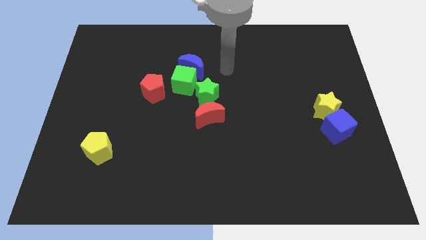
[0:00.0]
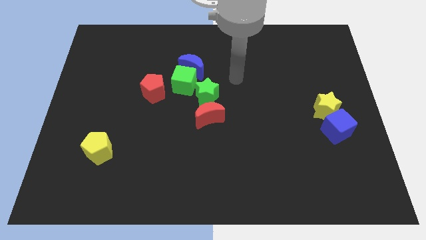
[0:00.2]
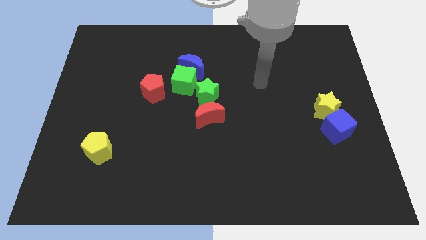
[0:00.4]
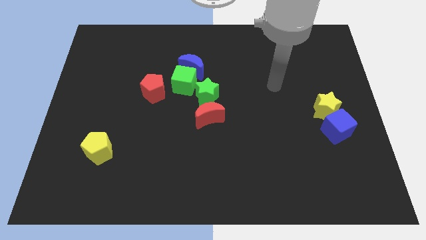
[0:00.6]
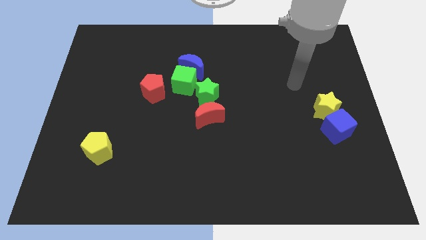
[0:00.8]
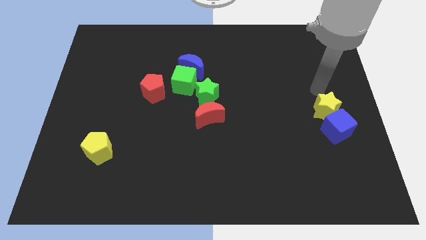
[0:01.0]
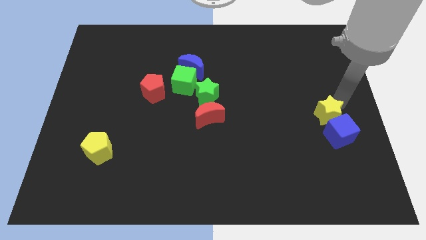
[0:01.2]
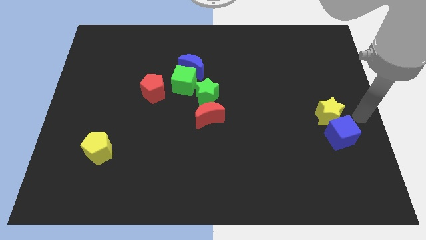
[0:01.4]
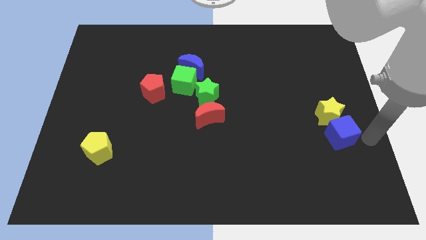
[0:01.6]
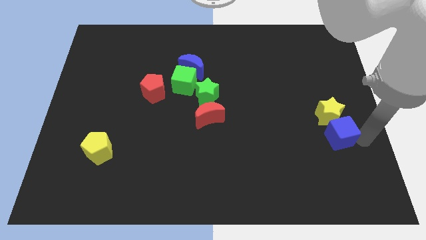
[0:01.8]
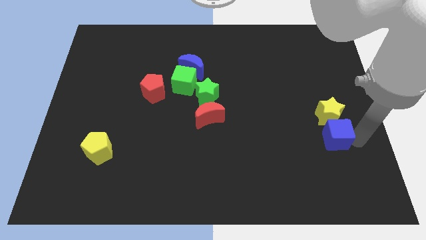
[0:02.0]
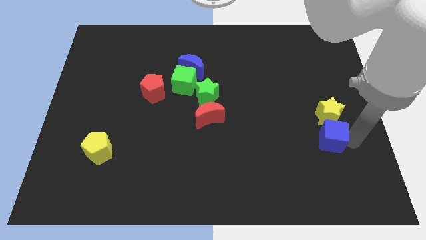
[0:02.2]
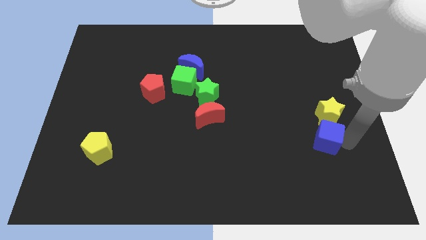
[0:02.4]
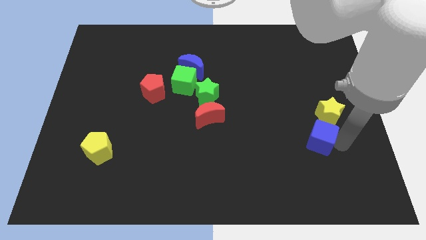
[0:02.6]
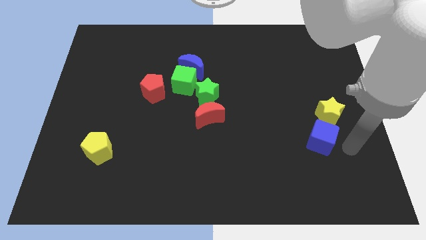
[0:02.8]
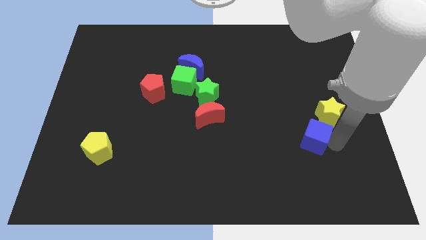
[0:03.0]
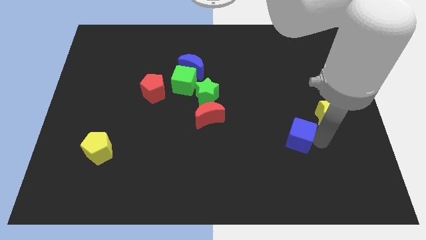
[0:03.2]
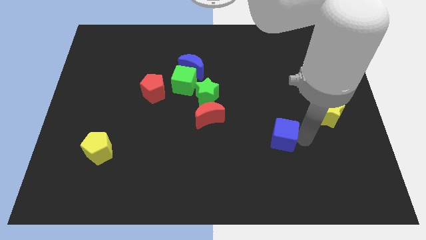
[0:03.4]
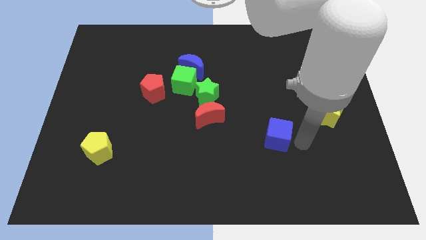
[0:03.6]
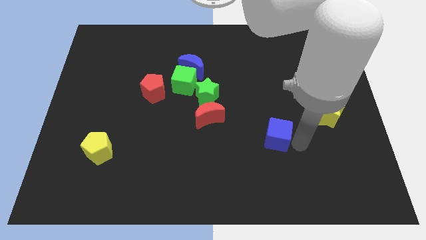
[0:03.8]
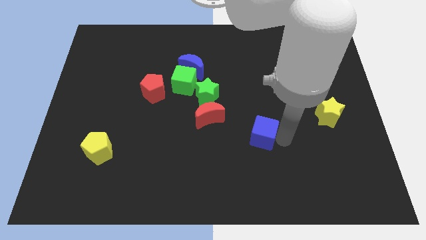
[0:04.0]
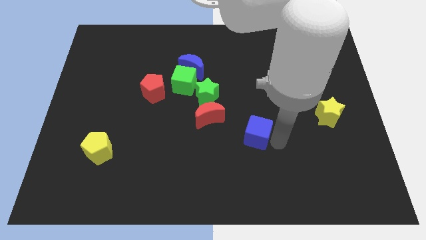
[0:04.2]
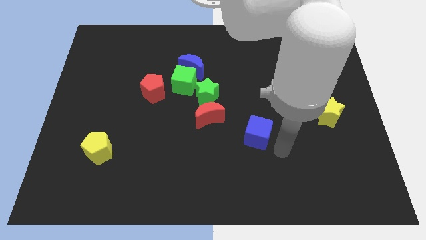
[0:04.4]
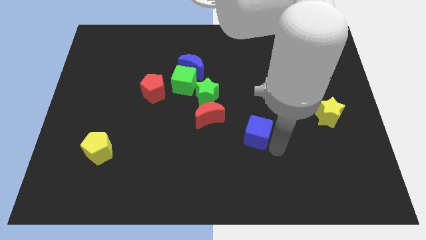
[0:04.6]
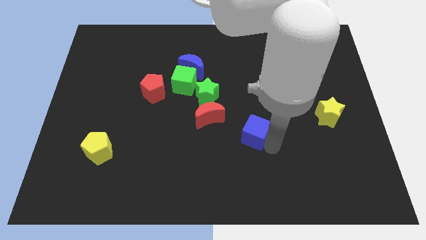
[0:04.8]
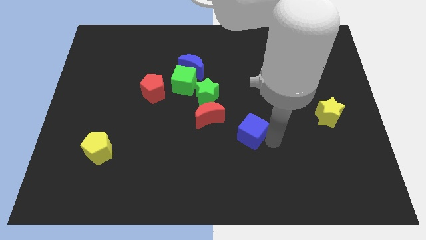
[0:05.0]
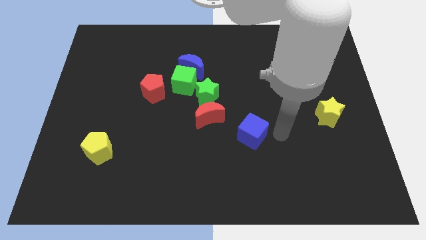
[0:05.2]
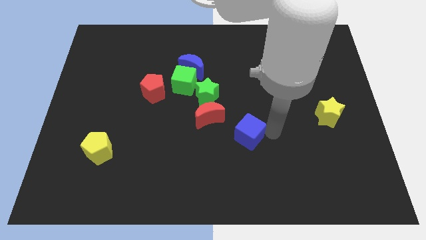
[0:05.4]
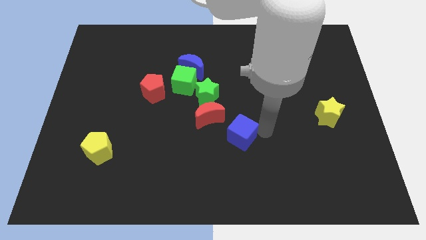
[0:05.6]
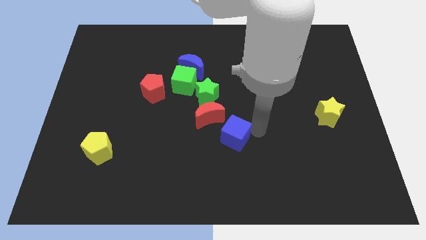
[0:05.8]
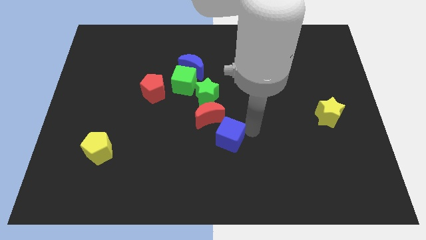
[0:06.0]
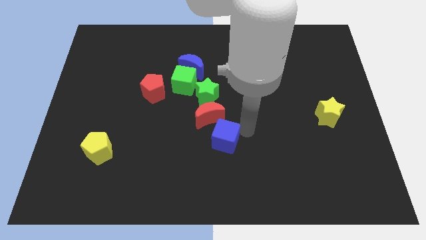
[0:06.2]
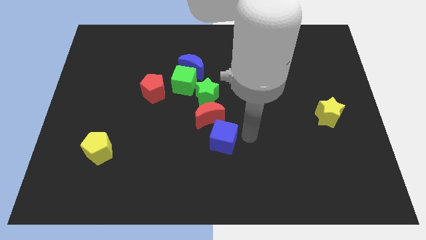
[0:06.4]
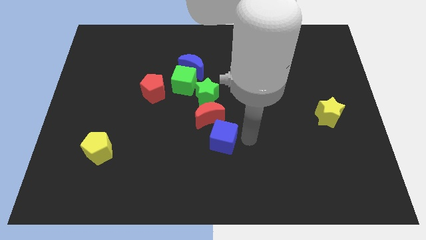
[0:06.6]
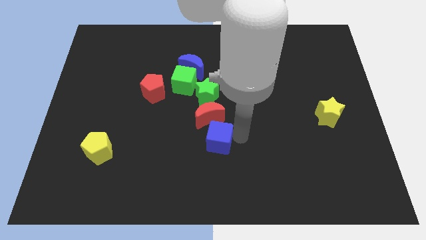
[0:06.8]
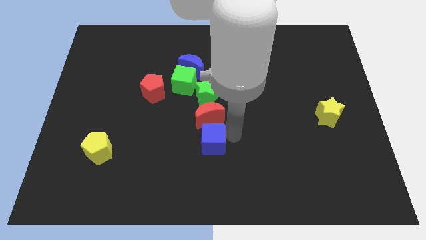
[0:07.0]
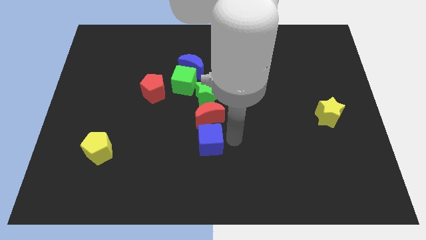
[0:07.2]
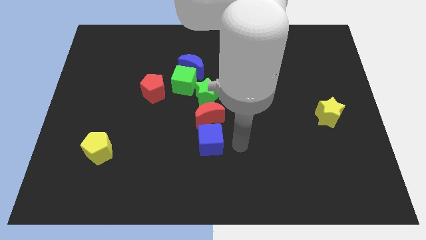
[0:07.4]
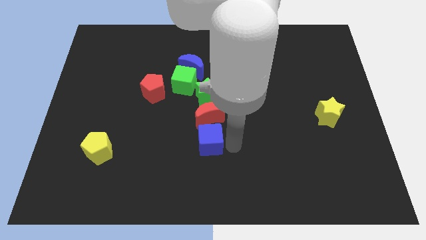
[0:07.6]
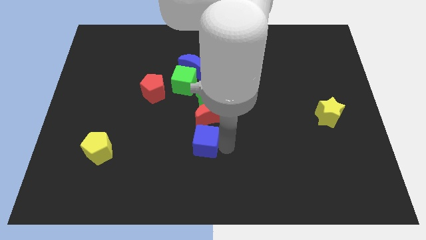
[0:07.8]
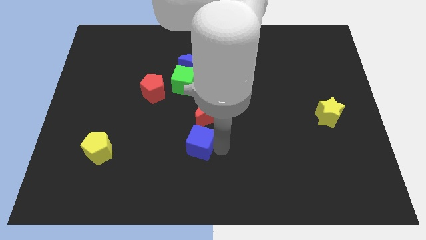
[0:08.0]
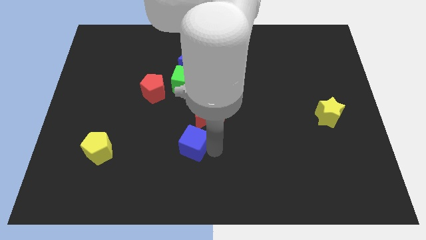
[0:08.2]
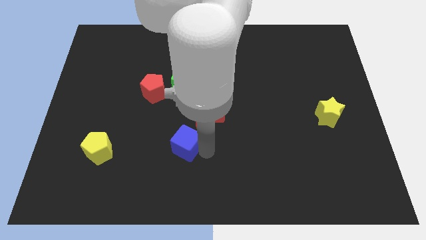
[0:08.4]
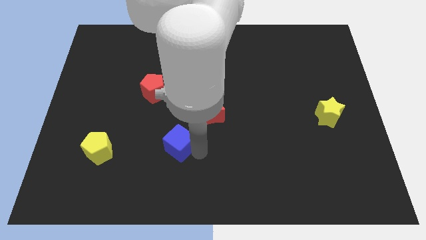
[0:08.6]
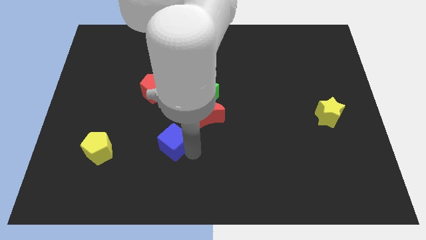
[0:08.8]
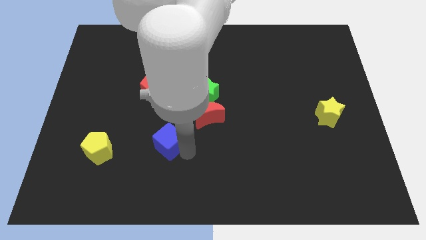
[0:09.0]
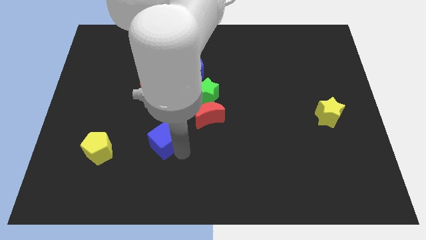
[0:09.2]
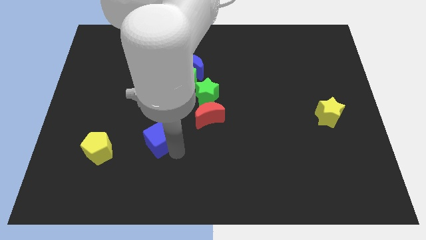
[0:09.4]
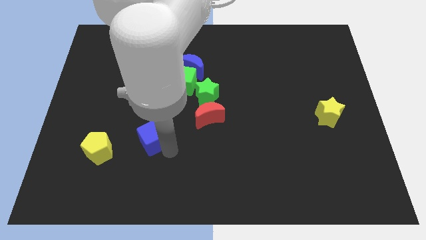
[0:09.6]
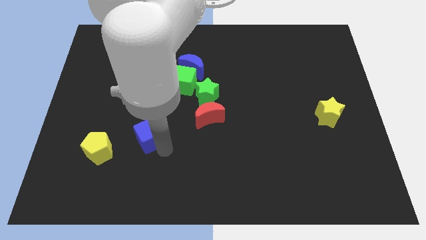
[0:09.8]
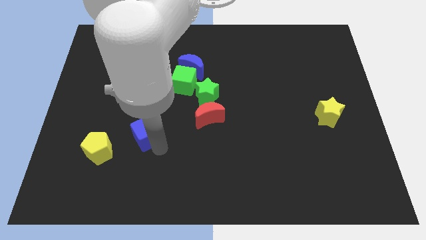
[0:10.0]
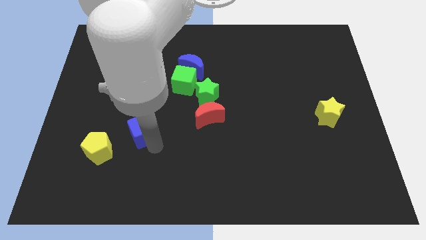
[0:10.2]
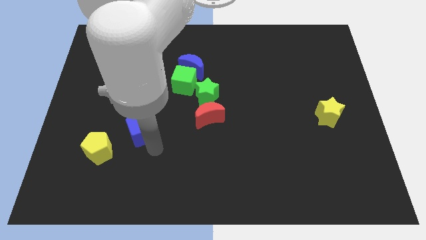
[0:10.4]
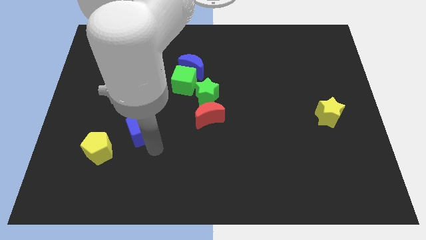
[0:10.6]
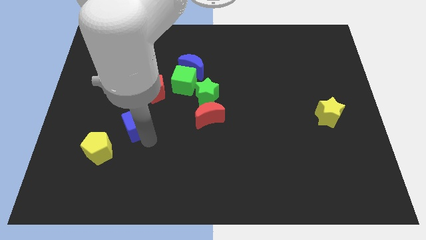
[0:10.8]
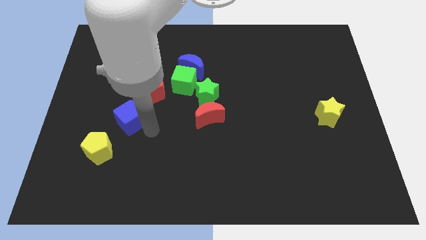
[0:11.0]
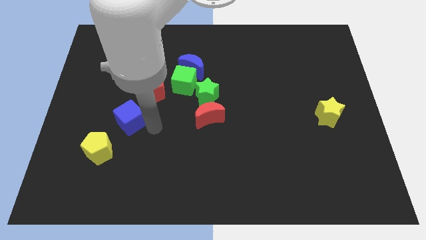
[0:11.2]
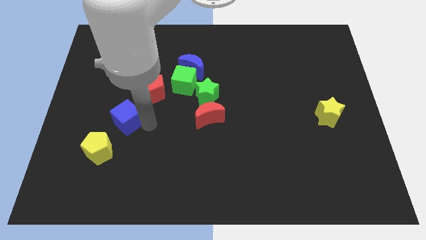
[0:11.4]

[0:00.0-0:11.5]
push the blue cube above the yellow pentagon

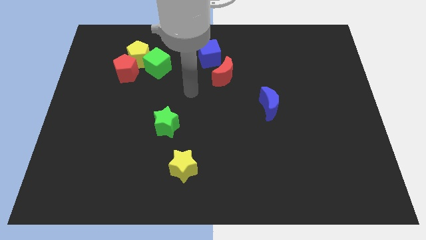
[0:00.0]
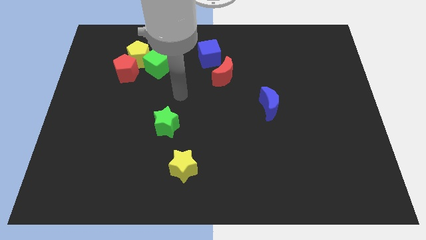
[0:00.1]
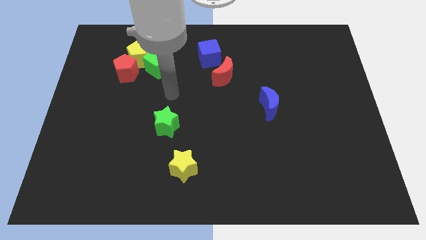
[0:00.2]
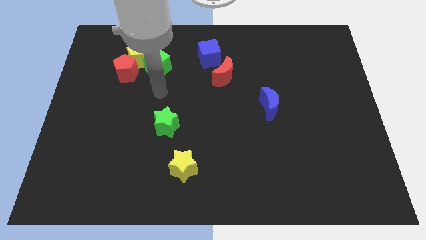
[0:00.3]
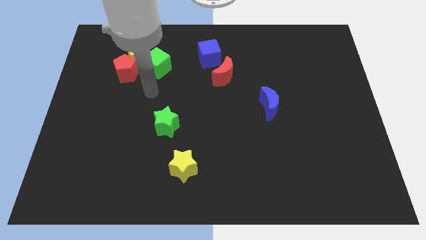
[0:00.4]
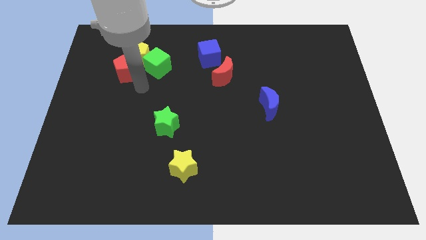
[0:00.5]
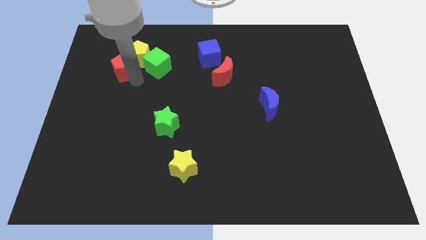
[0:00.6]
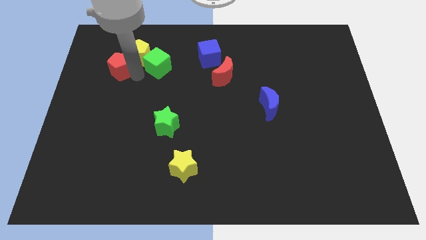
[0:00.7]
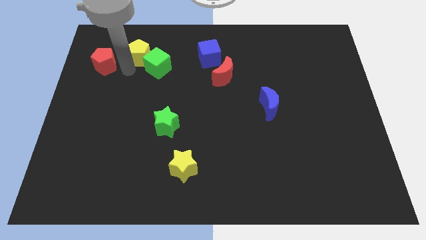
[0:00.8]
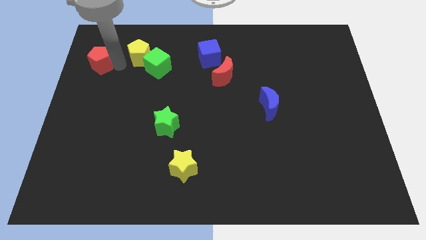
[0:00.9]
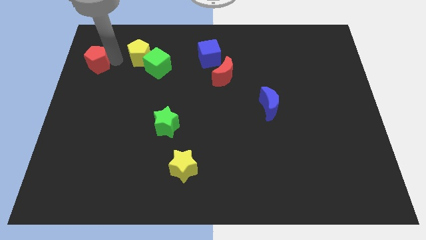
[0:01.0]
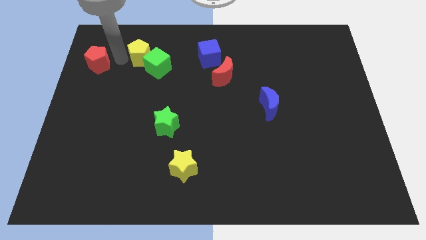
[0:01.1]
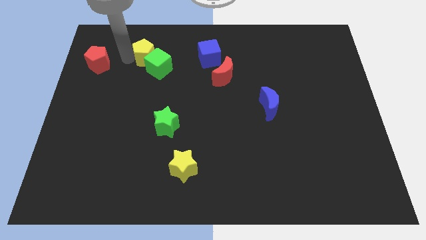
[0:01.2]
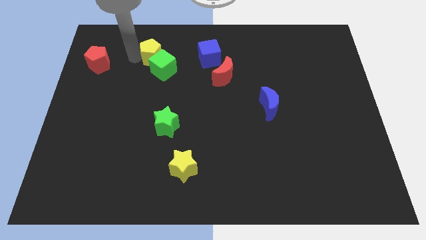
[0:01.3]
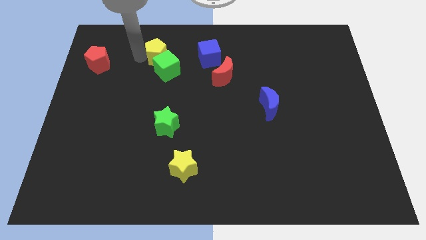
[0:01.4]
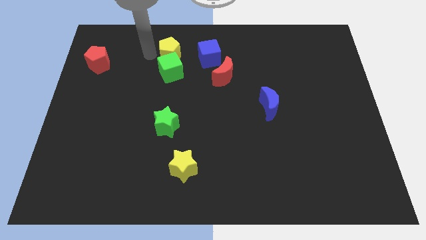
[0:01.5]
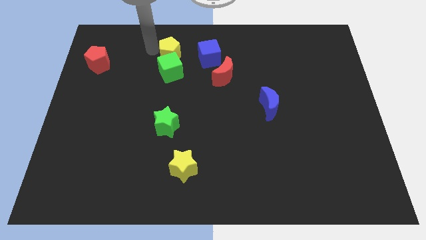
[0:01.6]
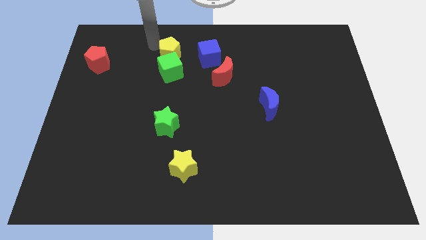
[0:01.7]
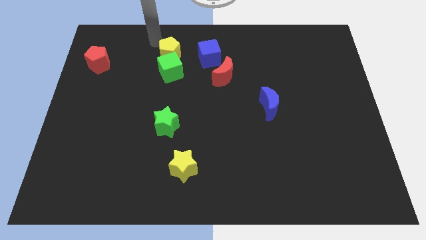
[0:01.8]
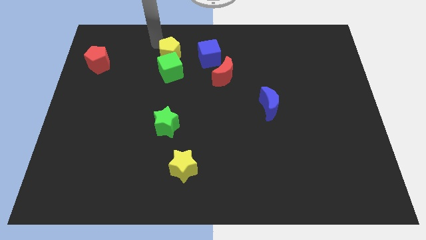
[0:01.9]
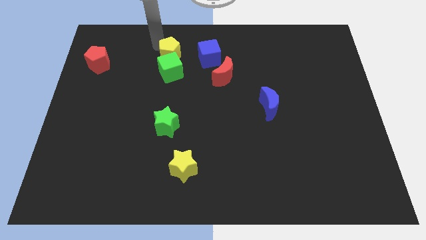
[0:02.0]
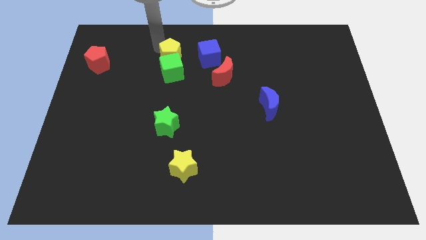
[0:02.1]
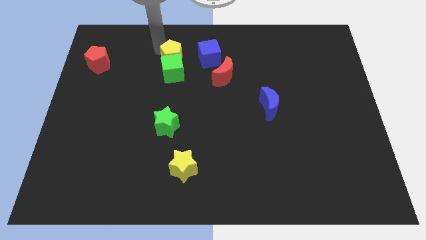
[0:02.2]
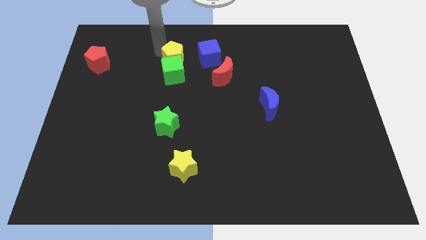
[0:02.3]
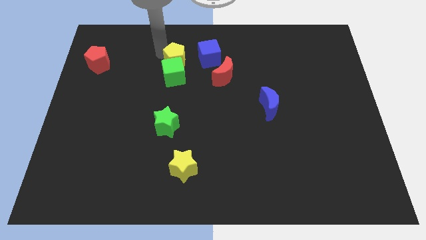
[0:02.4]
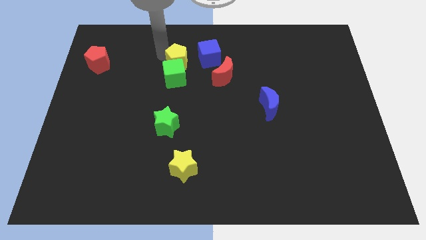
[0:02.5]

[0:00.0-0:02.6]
push the yellow pentagon to the bottom left side of the blue cube
